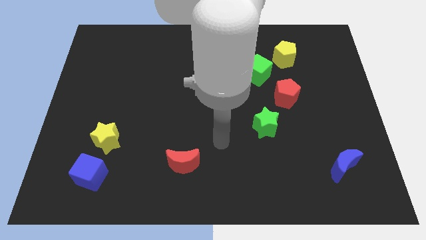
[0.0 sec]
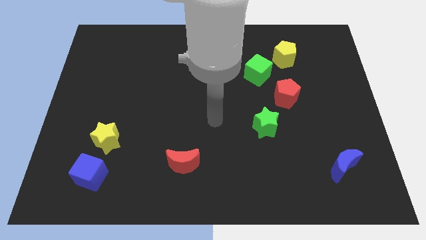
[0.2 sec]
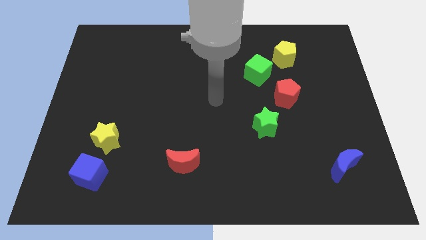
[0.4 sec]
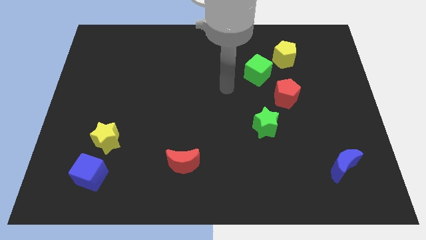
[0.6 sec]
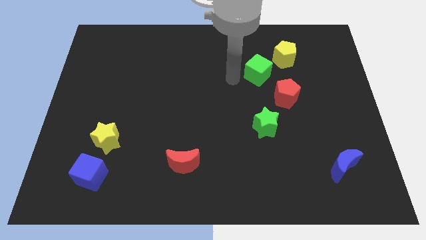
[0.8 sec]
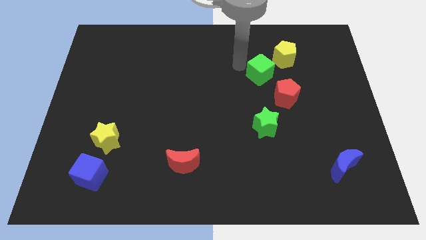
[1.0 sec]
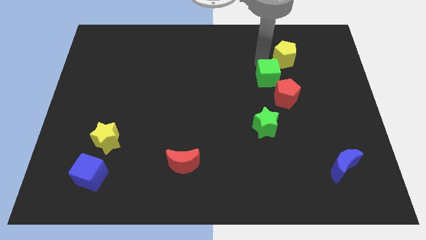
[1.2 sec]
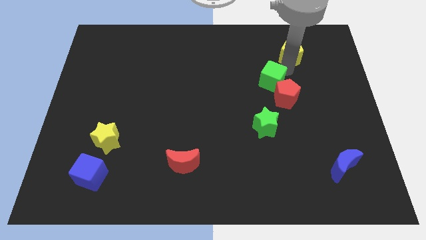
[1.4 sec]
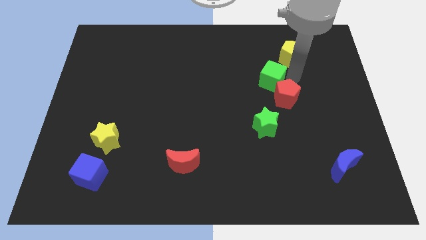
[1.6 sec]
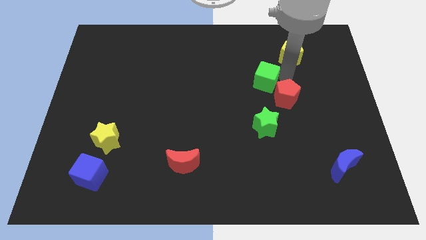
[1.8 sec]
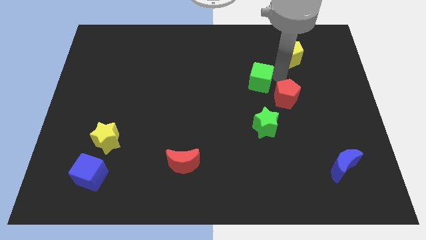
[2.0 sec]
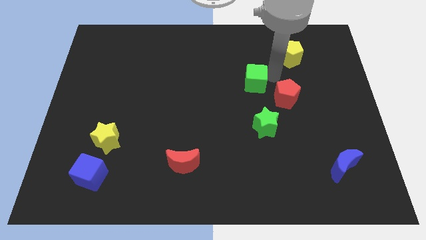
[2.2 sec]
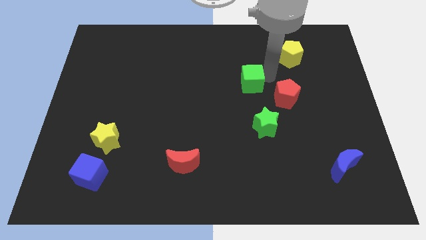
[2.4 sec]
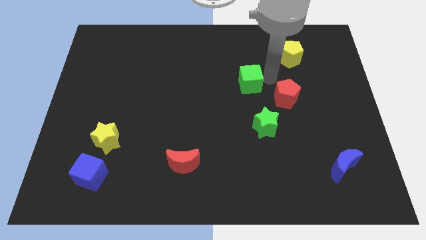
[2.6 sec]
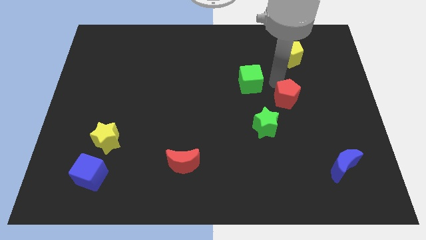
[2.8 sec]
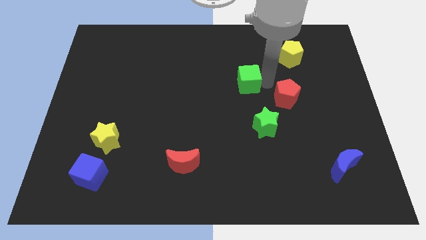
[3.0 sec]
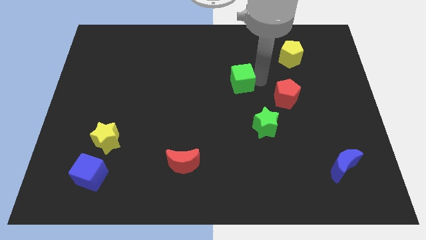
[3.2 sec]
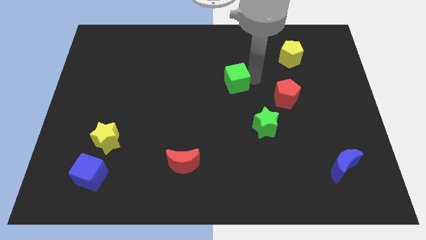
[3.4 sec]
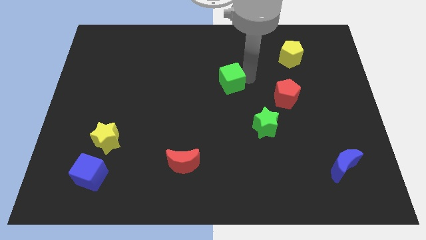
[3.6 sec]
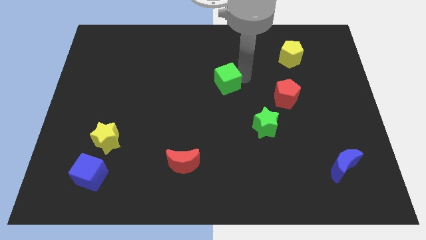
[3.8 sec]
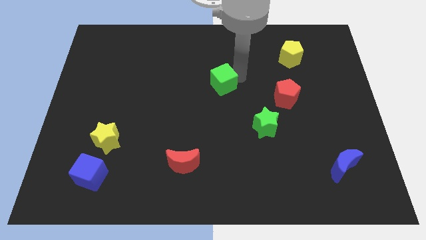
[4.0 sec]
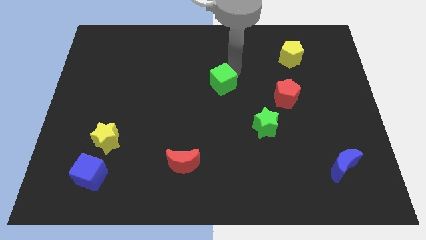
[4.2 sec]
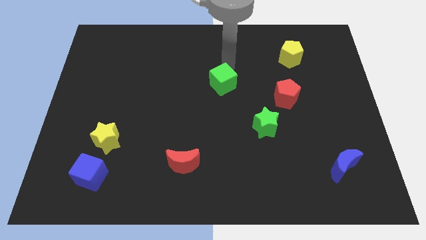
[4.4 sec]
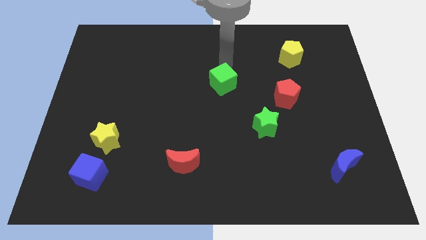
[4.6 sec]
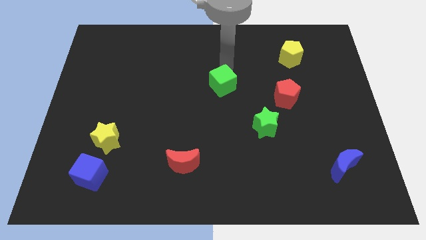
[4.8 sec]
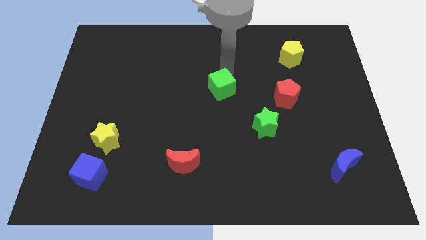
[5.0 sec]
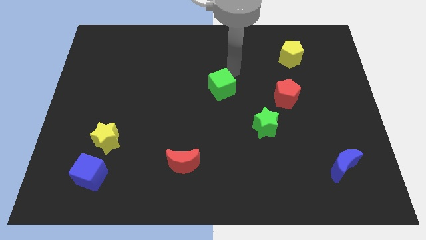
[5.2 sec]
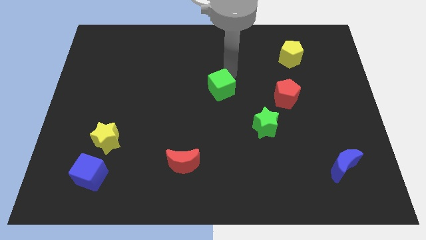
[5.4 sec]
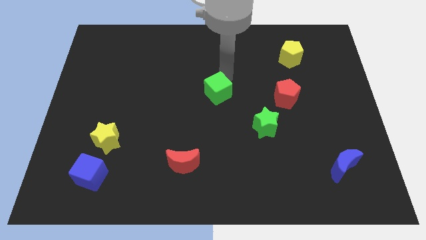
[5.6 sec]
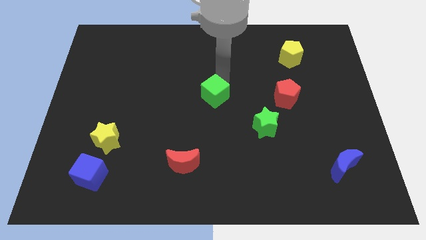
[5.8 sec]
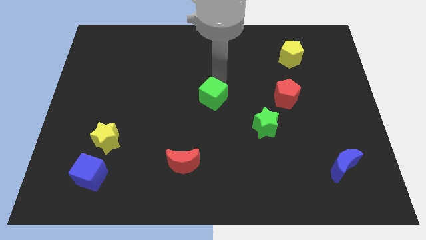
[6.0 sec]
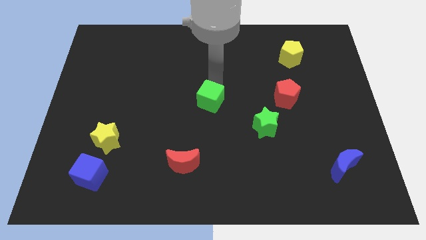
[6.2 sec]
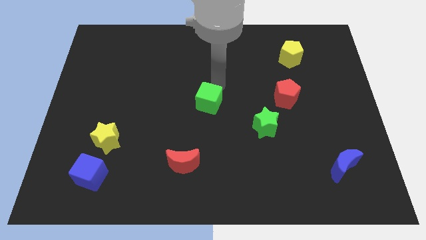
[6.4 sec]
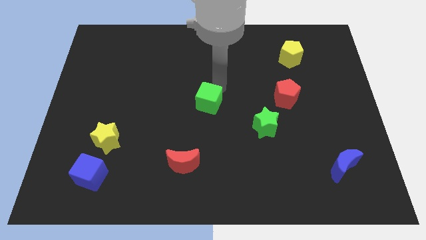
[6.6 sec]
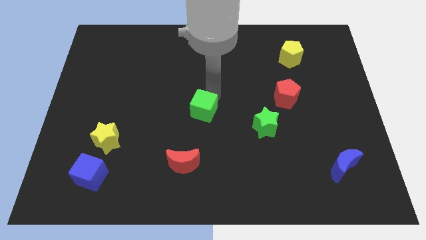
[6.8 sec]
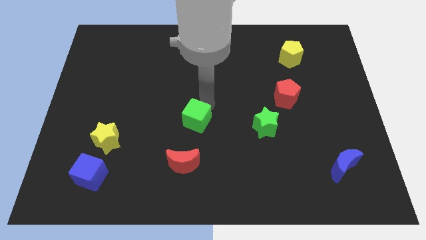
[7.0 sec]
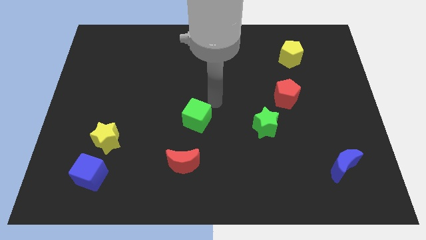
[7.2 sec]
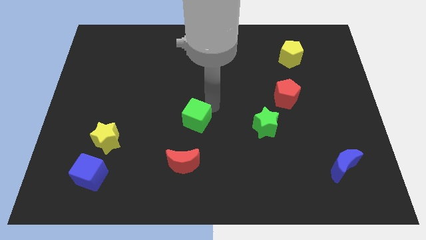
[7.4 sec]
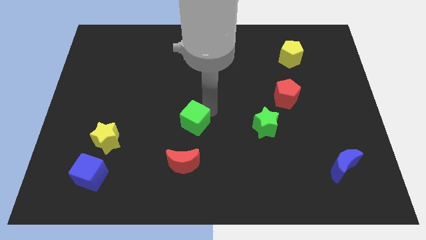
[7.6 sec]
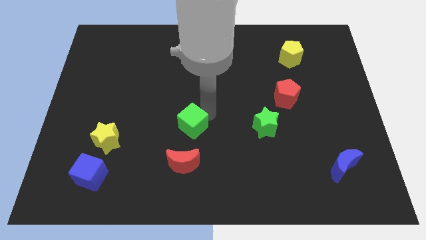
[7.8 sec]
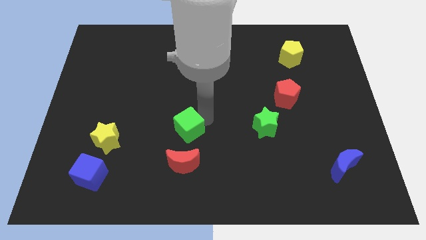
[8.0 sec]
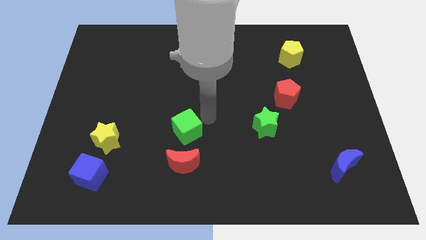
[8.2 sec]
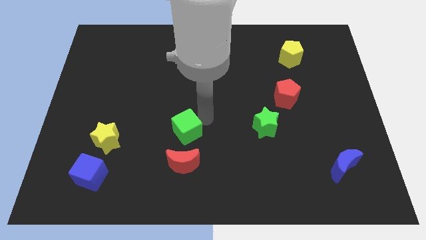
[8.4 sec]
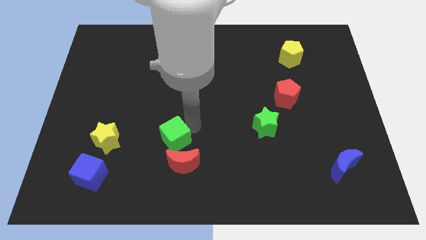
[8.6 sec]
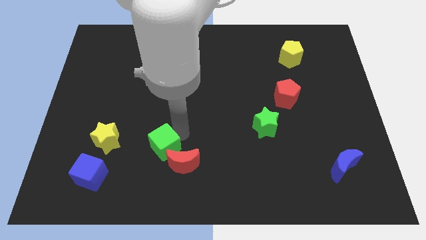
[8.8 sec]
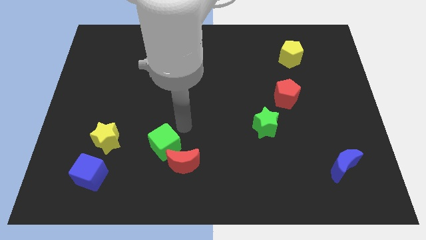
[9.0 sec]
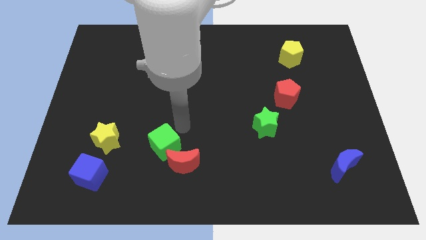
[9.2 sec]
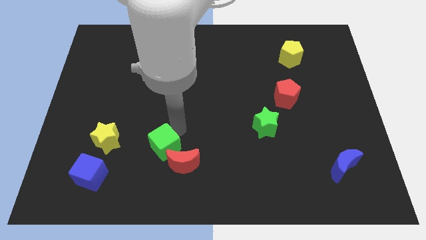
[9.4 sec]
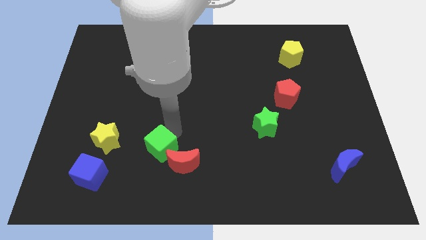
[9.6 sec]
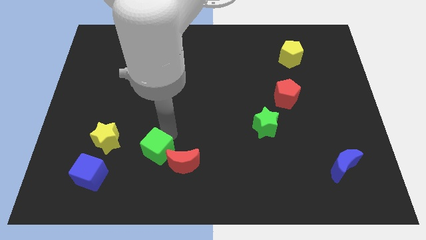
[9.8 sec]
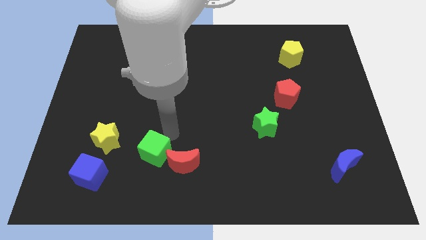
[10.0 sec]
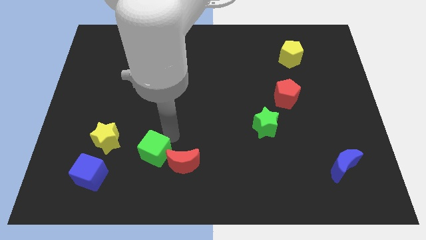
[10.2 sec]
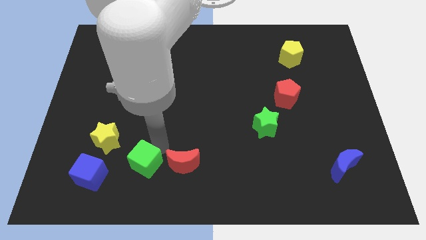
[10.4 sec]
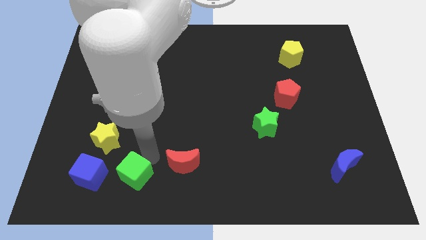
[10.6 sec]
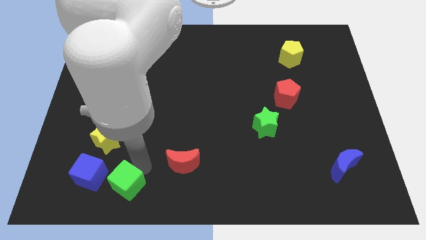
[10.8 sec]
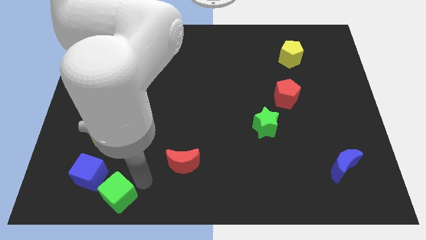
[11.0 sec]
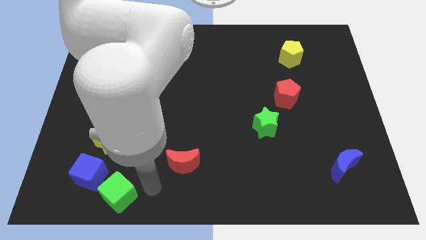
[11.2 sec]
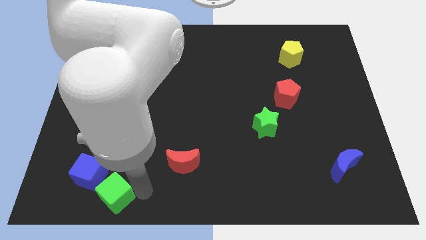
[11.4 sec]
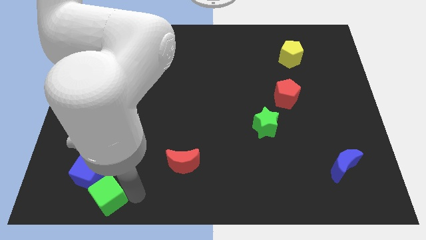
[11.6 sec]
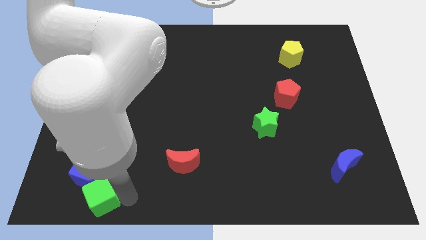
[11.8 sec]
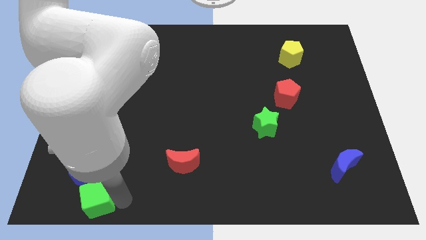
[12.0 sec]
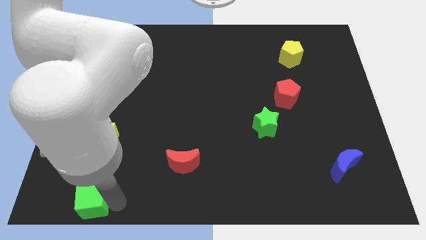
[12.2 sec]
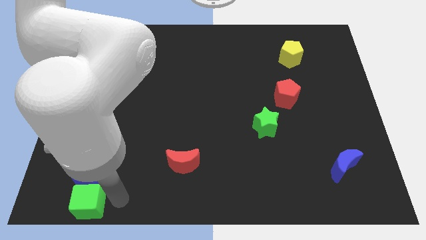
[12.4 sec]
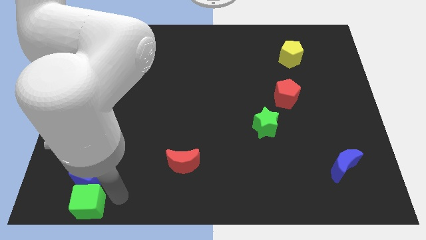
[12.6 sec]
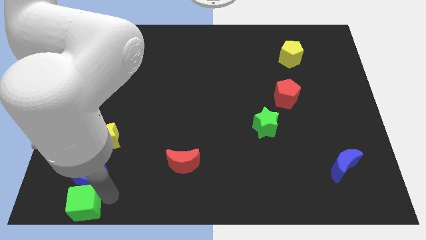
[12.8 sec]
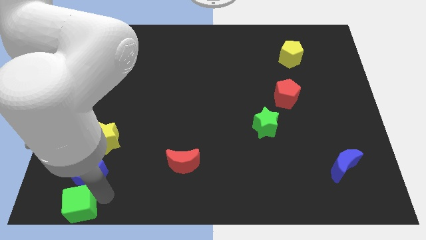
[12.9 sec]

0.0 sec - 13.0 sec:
move the green cube to the bottom left of the board
